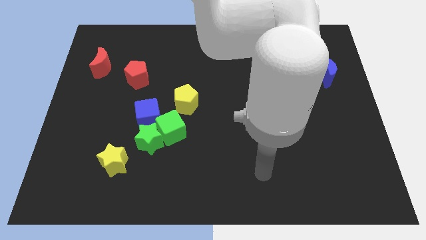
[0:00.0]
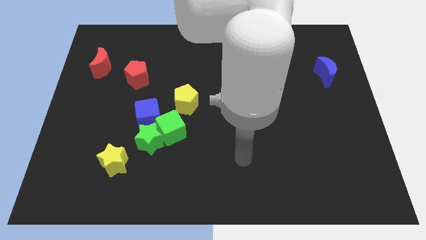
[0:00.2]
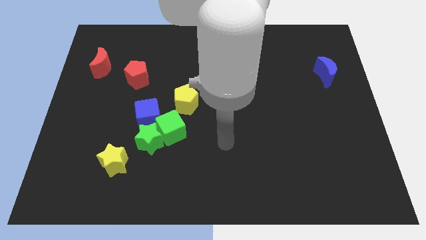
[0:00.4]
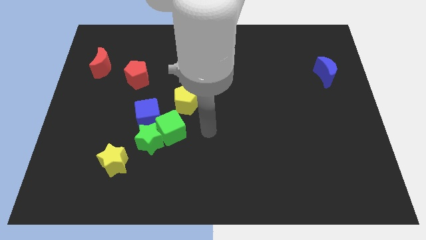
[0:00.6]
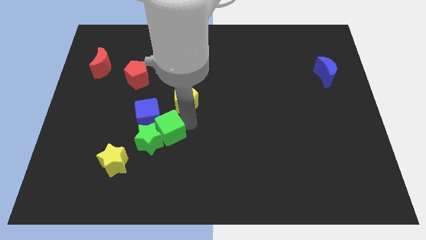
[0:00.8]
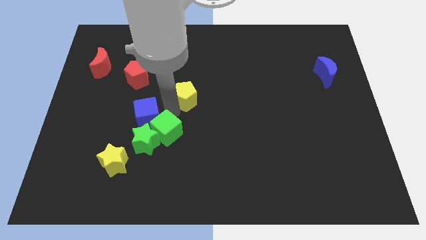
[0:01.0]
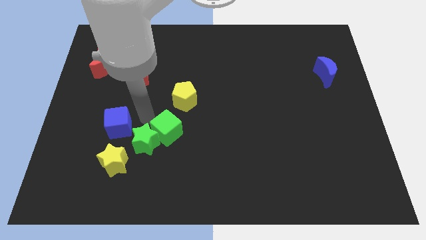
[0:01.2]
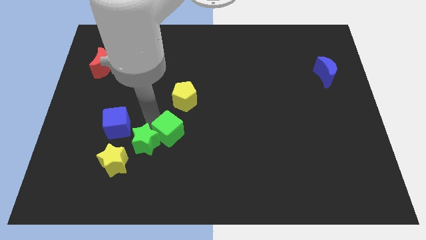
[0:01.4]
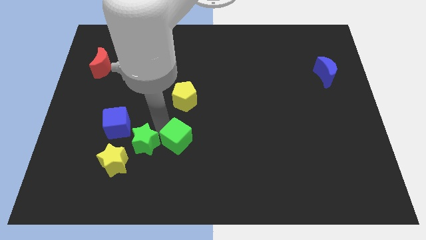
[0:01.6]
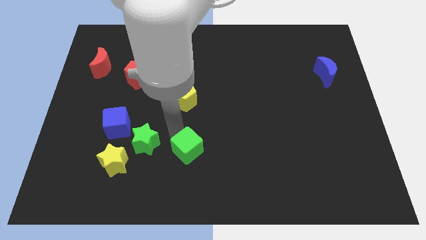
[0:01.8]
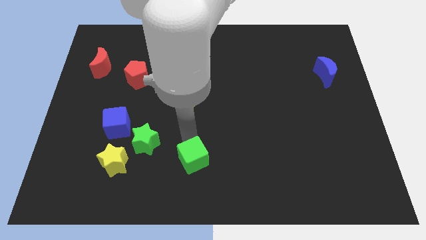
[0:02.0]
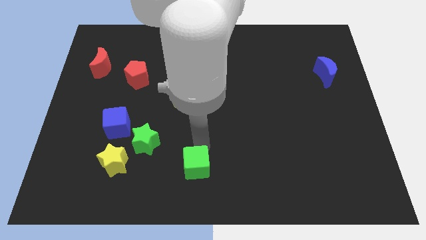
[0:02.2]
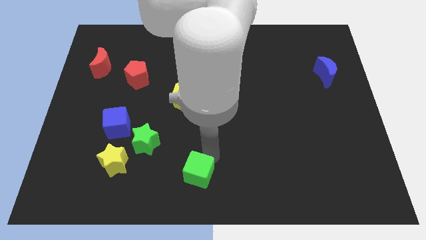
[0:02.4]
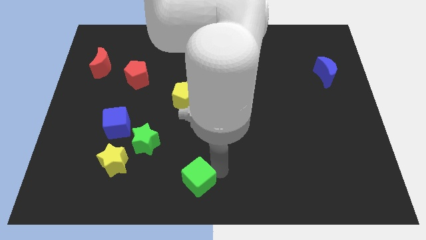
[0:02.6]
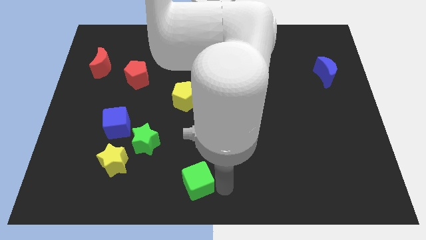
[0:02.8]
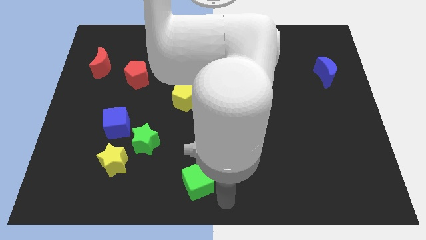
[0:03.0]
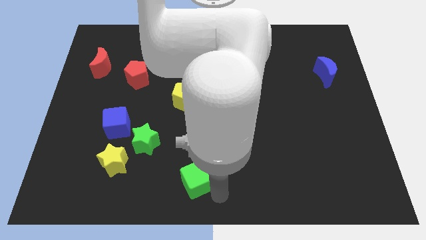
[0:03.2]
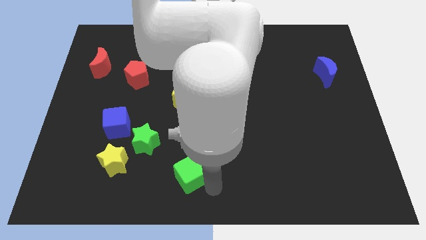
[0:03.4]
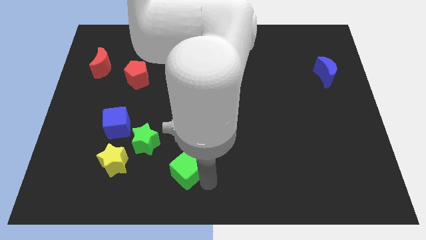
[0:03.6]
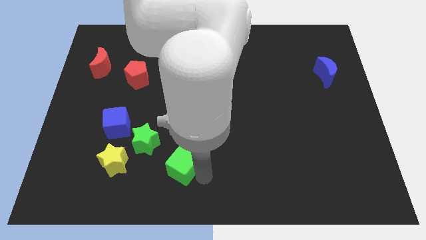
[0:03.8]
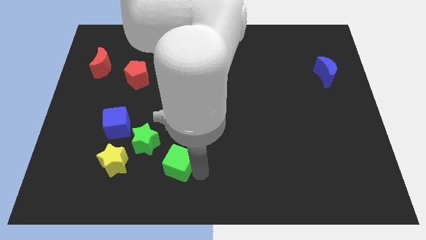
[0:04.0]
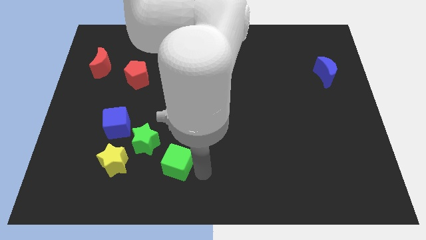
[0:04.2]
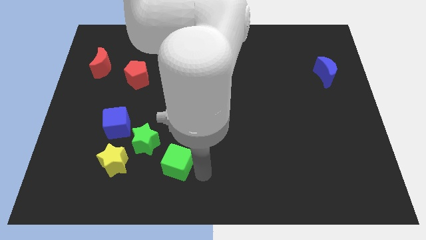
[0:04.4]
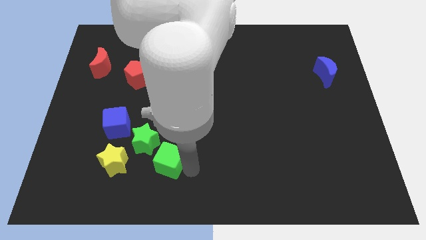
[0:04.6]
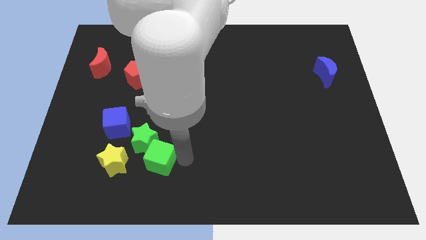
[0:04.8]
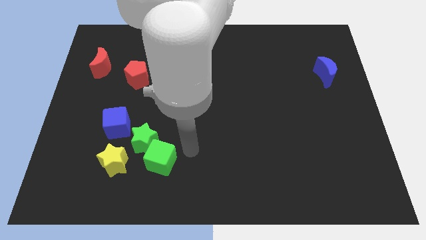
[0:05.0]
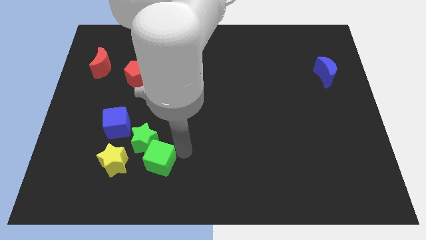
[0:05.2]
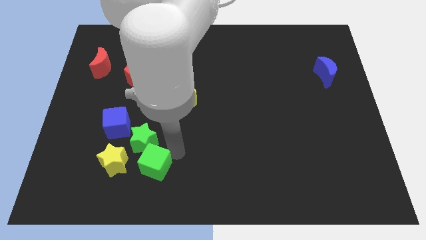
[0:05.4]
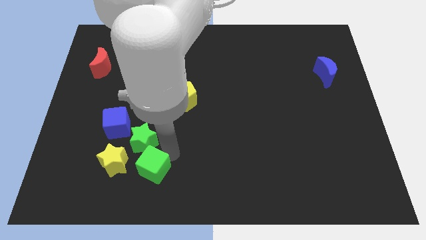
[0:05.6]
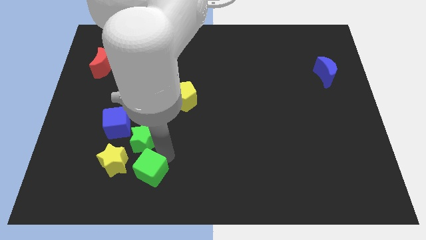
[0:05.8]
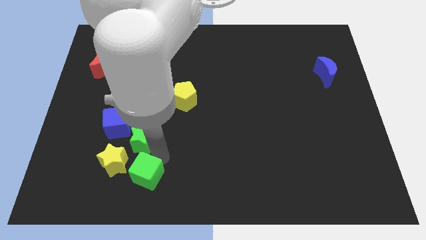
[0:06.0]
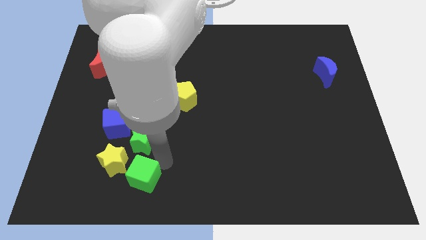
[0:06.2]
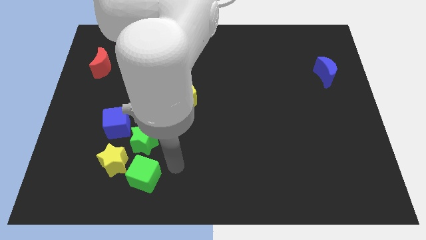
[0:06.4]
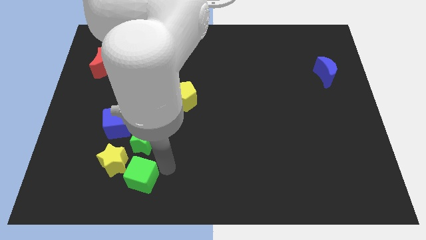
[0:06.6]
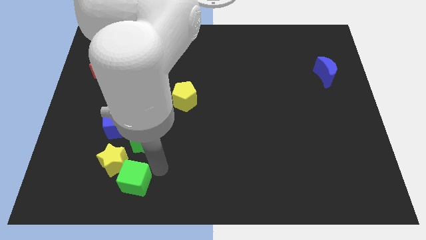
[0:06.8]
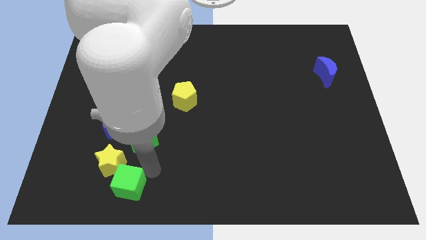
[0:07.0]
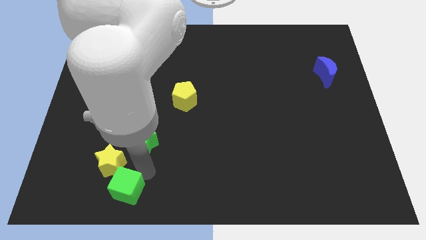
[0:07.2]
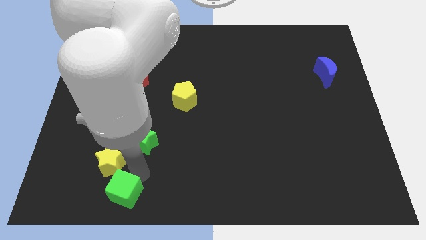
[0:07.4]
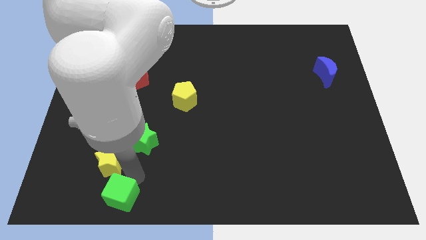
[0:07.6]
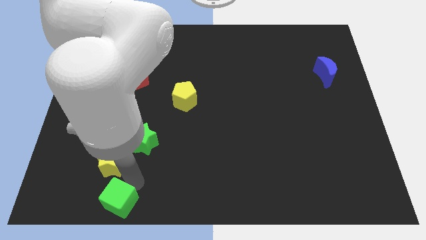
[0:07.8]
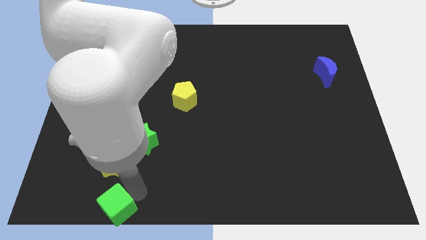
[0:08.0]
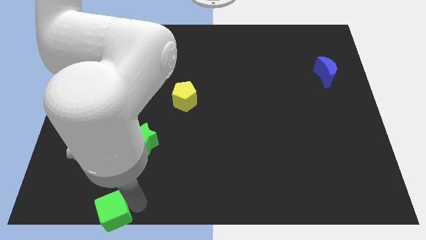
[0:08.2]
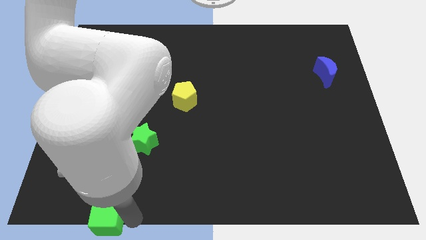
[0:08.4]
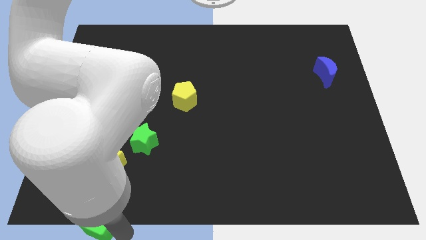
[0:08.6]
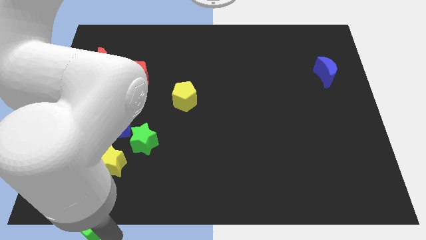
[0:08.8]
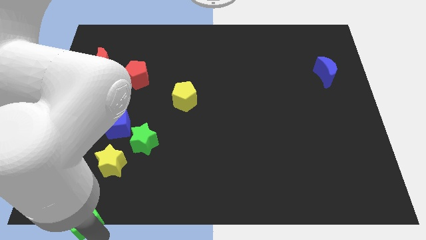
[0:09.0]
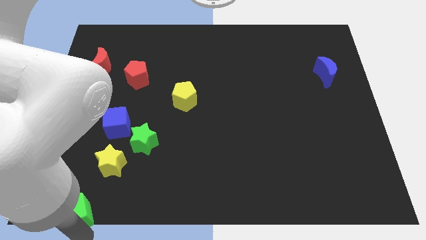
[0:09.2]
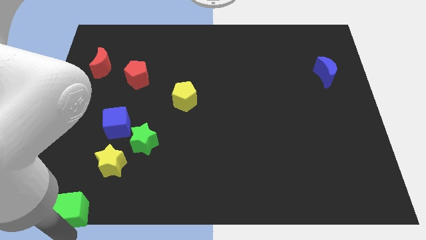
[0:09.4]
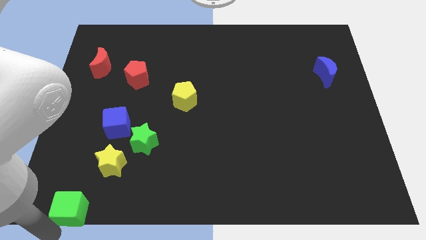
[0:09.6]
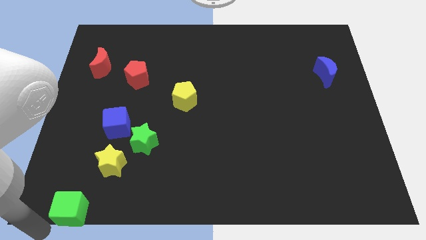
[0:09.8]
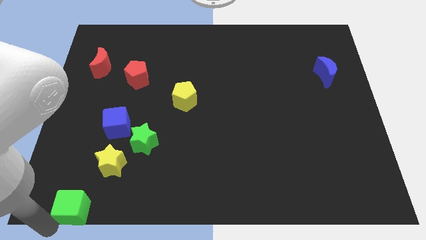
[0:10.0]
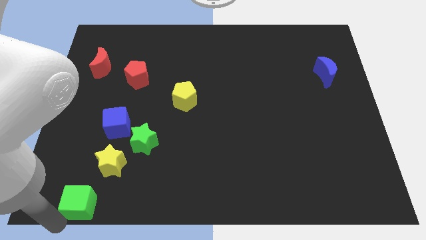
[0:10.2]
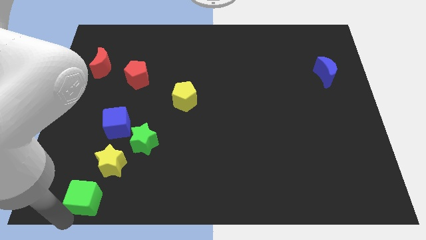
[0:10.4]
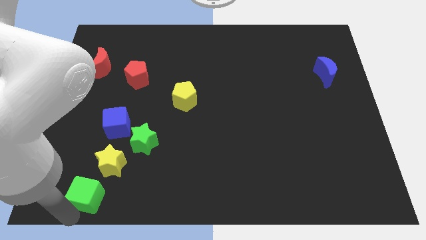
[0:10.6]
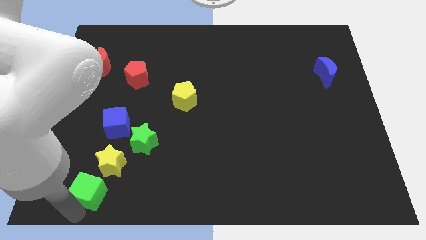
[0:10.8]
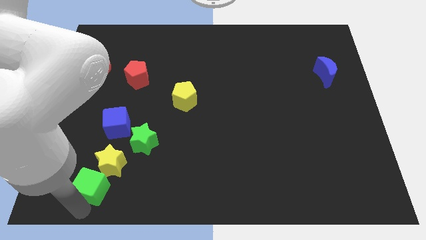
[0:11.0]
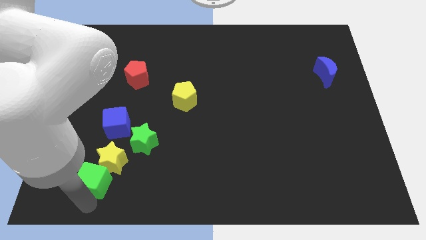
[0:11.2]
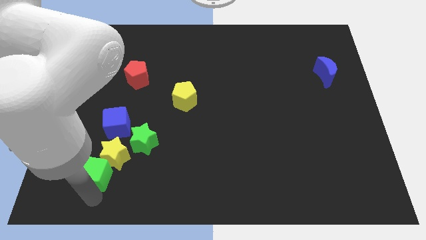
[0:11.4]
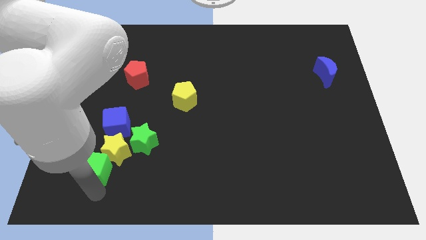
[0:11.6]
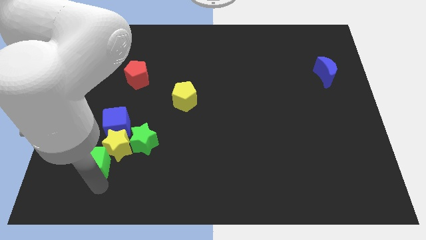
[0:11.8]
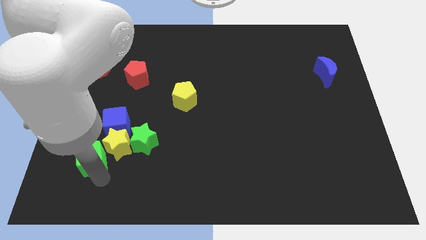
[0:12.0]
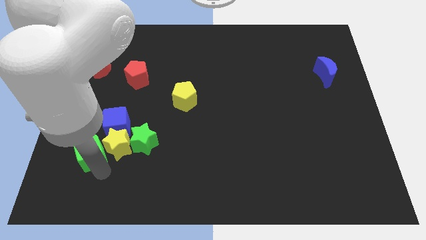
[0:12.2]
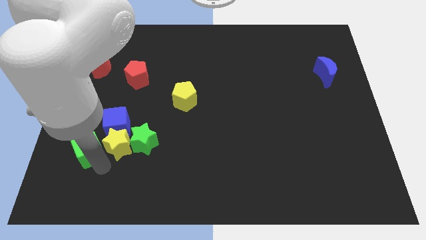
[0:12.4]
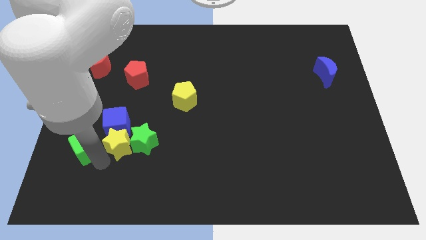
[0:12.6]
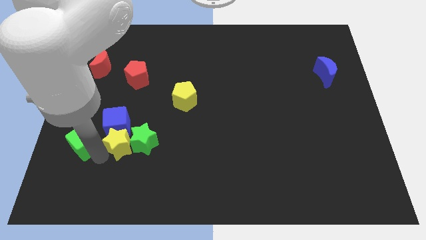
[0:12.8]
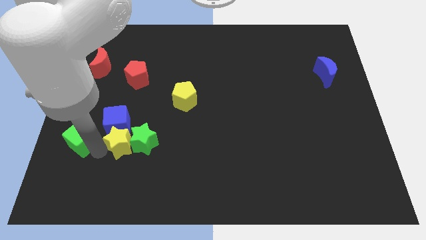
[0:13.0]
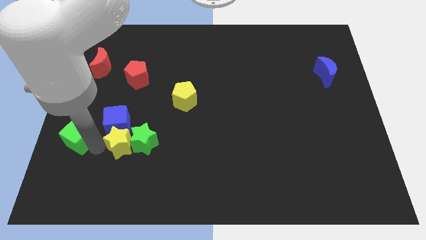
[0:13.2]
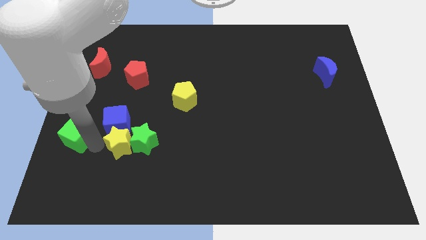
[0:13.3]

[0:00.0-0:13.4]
push the green cube to the left side of the board
